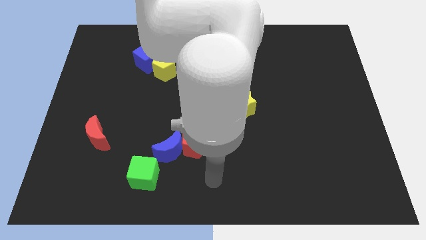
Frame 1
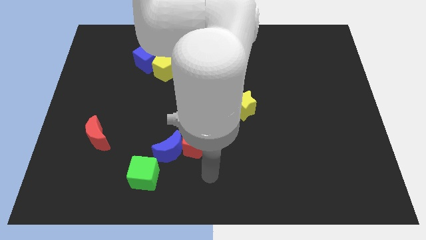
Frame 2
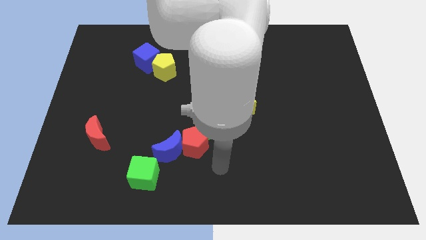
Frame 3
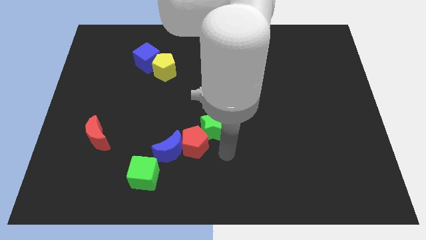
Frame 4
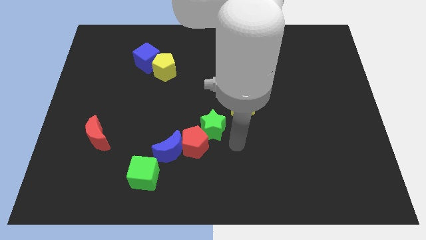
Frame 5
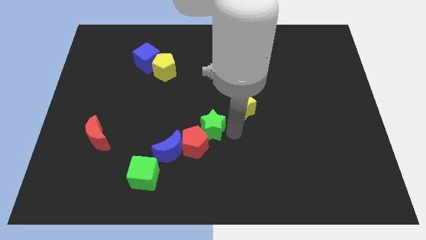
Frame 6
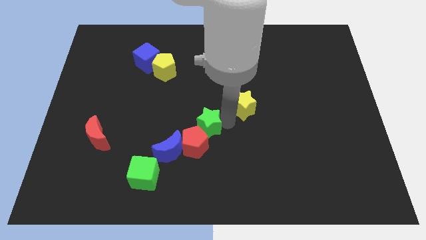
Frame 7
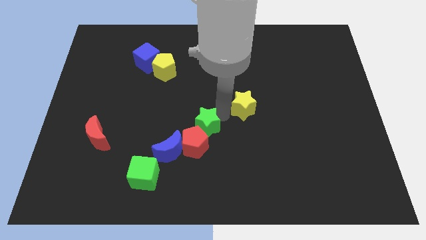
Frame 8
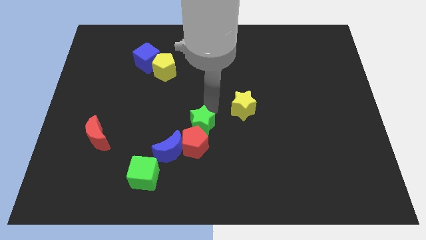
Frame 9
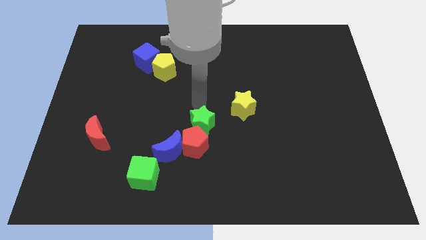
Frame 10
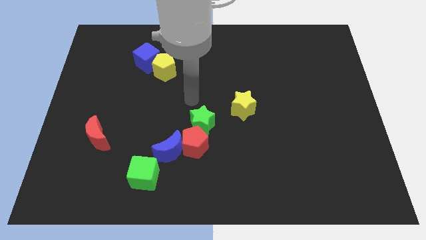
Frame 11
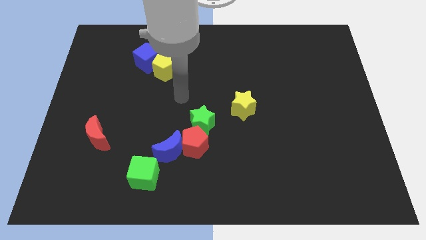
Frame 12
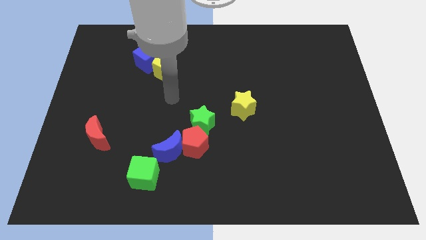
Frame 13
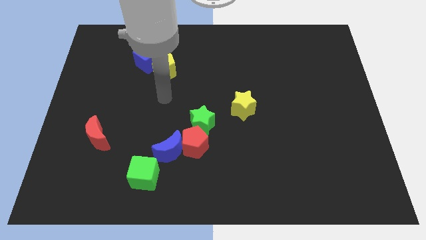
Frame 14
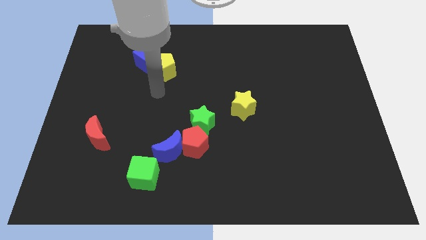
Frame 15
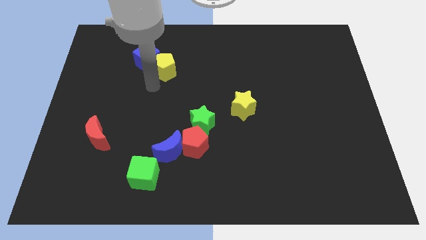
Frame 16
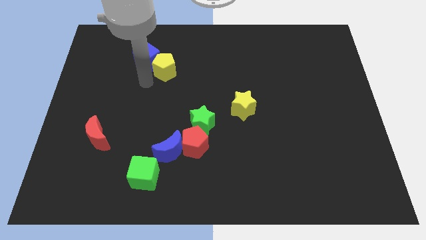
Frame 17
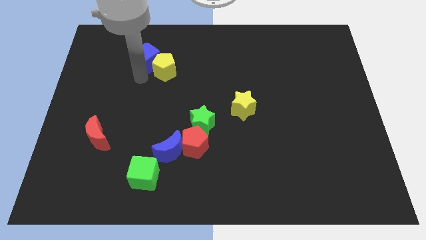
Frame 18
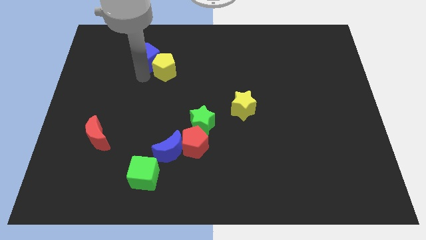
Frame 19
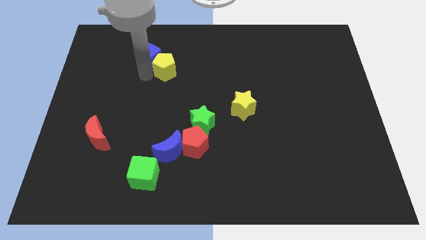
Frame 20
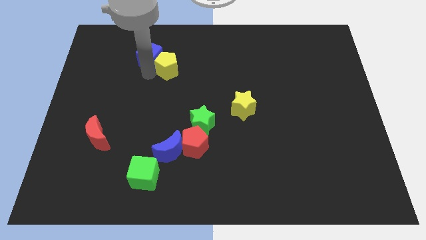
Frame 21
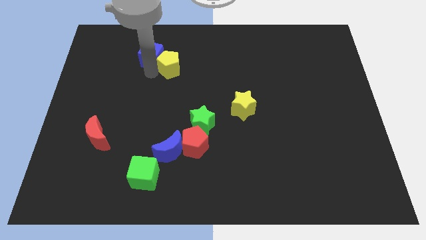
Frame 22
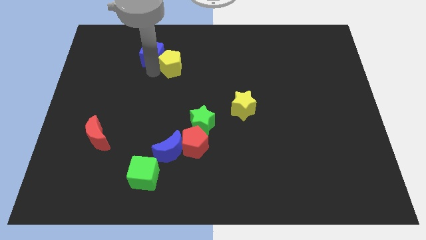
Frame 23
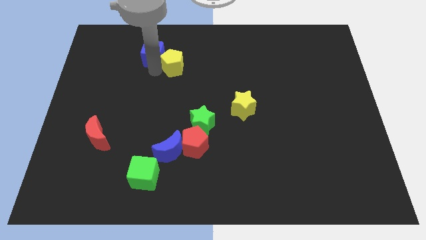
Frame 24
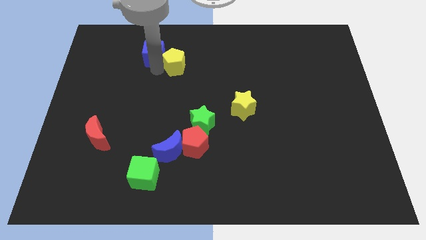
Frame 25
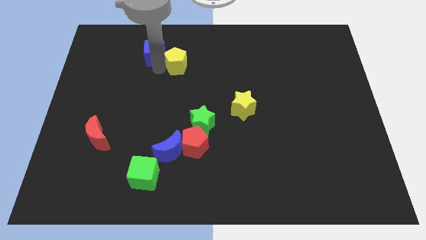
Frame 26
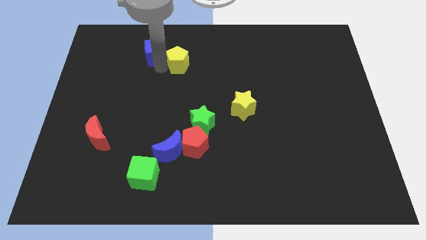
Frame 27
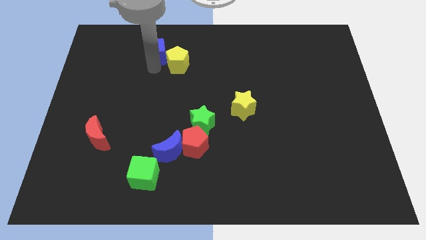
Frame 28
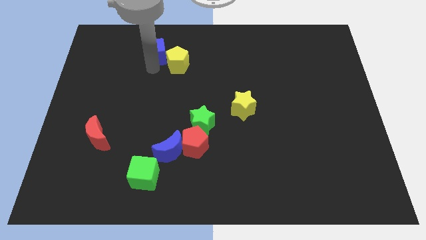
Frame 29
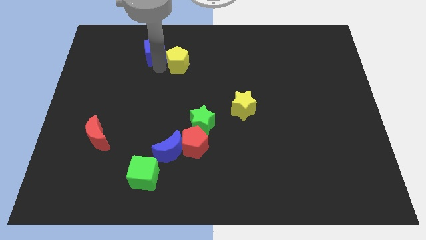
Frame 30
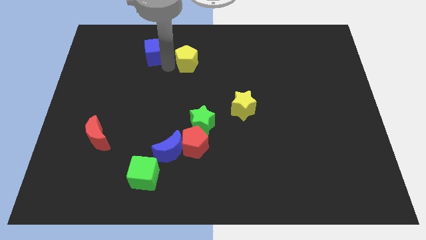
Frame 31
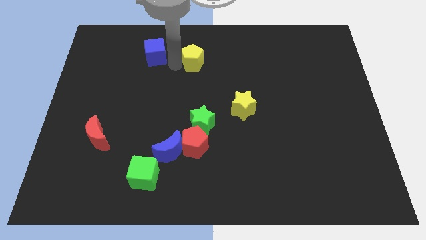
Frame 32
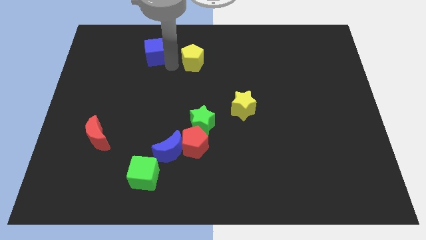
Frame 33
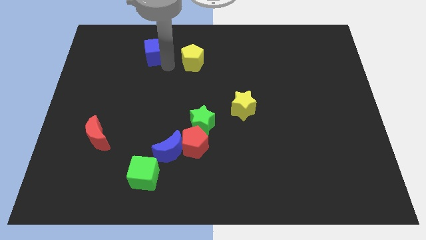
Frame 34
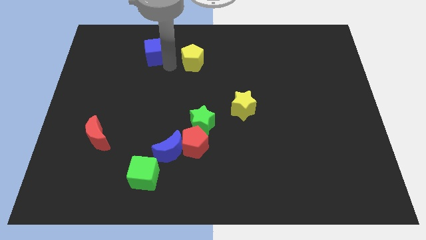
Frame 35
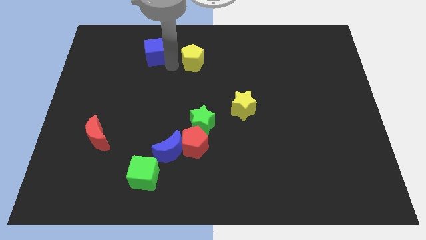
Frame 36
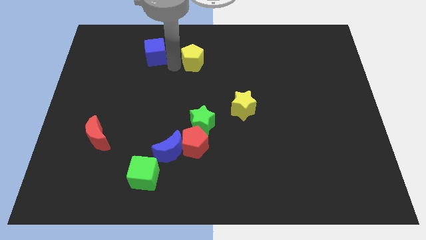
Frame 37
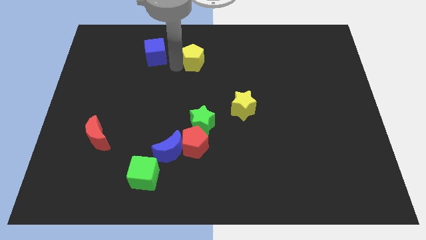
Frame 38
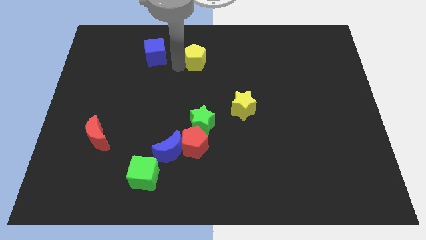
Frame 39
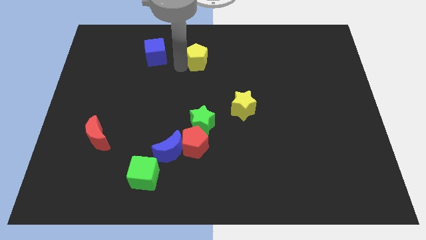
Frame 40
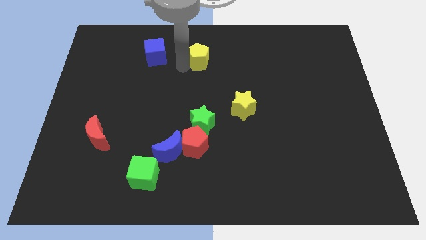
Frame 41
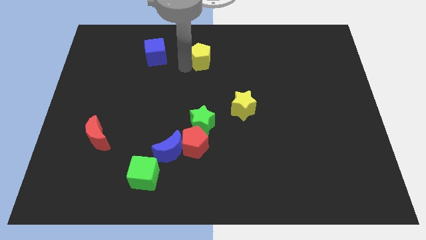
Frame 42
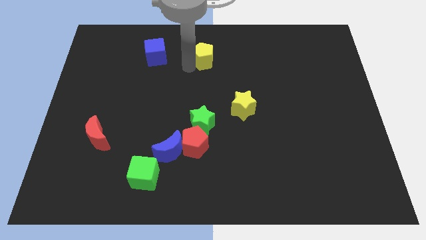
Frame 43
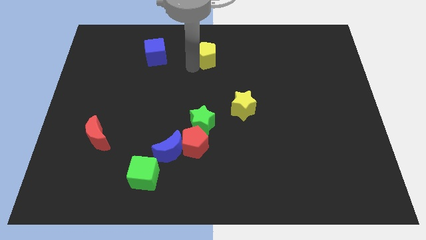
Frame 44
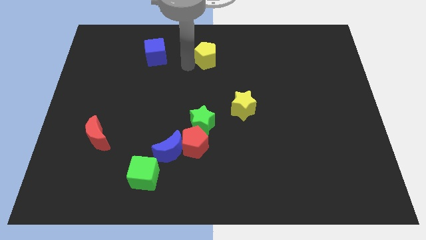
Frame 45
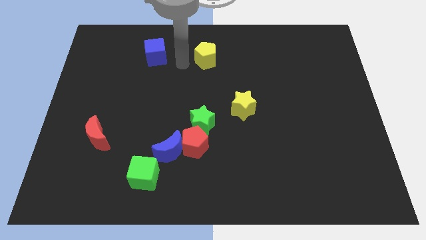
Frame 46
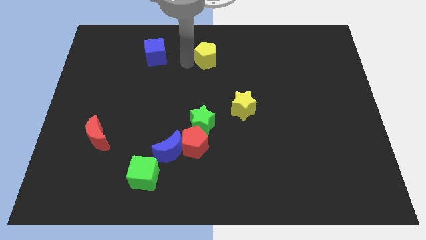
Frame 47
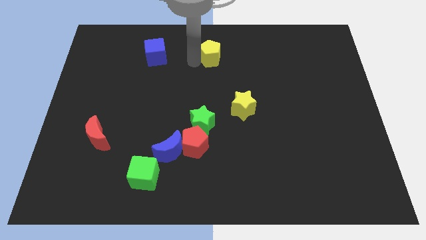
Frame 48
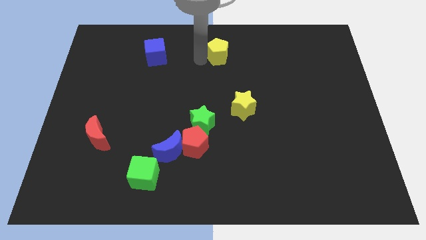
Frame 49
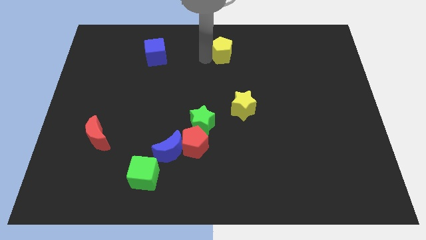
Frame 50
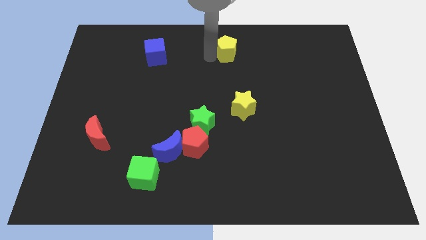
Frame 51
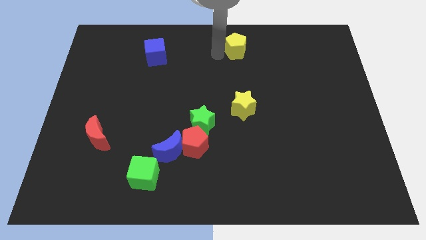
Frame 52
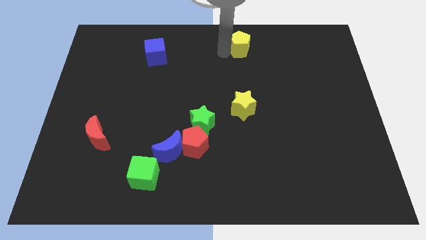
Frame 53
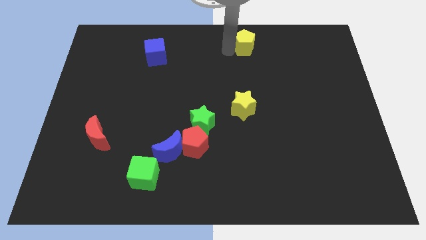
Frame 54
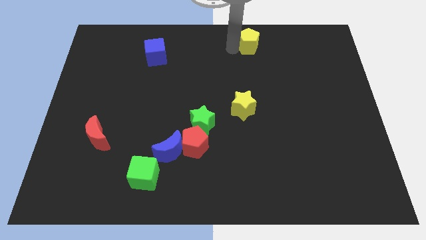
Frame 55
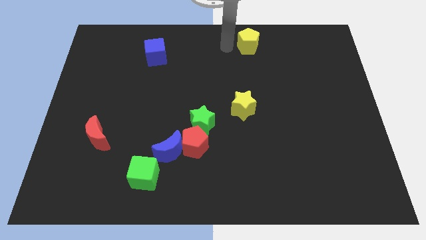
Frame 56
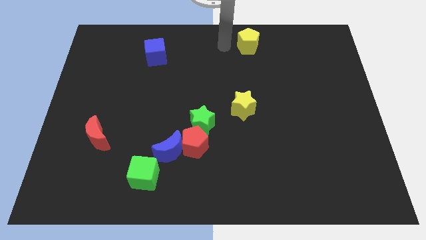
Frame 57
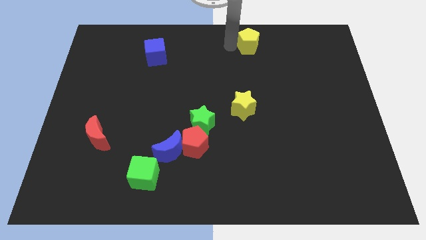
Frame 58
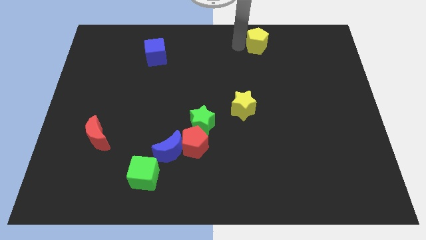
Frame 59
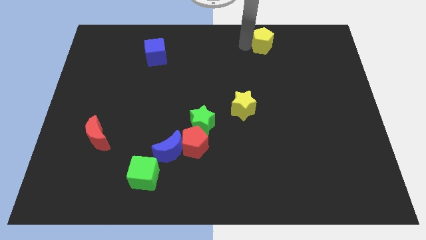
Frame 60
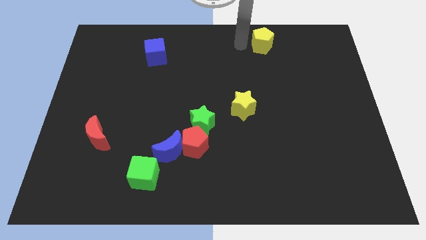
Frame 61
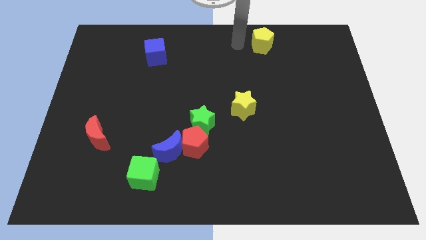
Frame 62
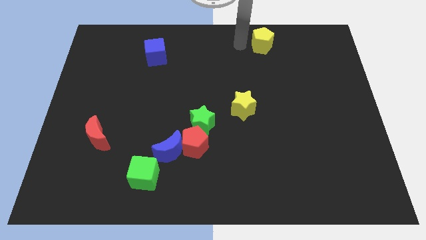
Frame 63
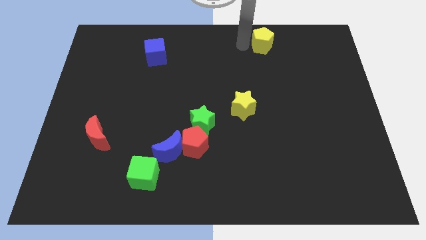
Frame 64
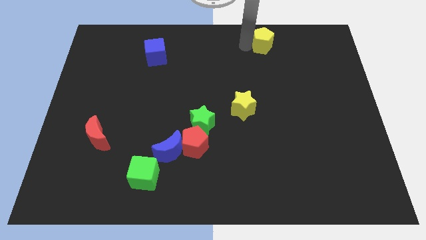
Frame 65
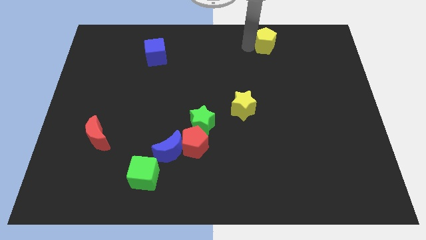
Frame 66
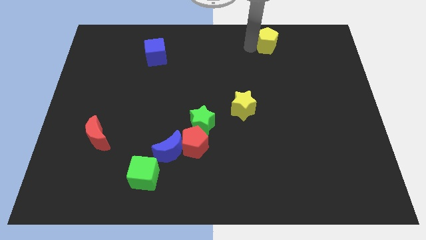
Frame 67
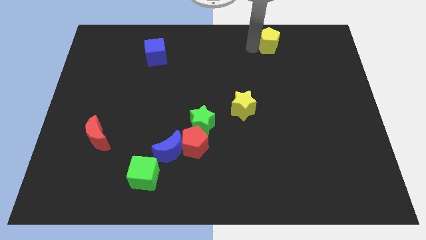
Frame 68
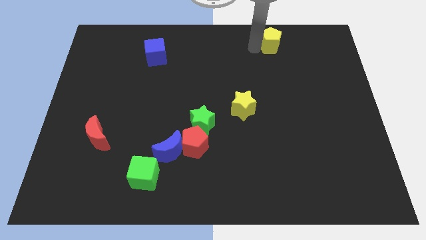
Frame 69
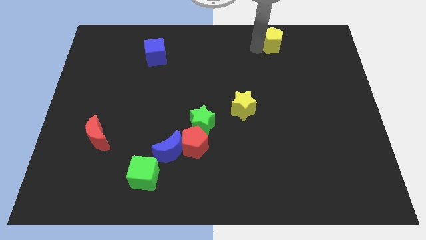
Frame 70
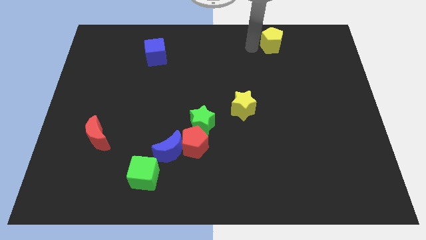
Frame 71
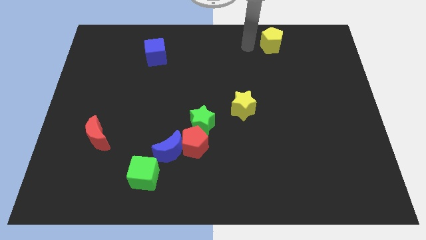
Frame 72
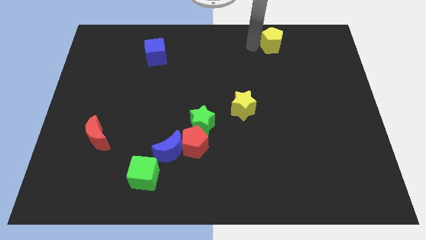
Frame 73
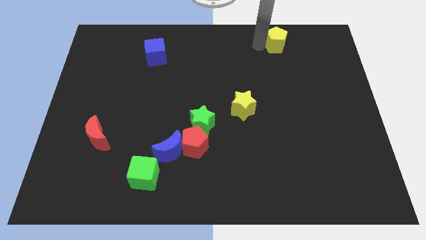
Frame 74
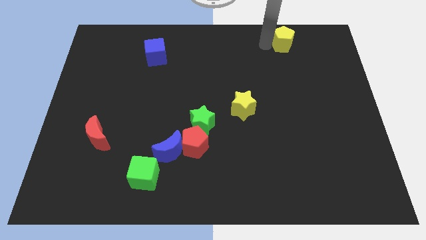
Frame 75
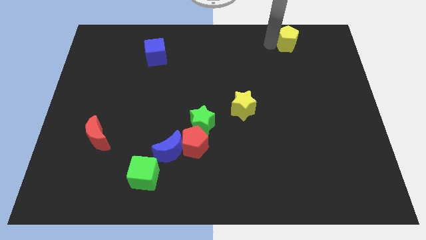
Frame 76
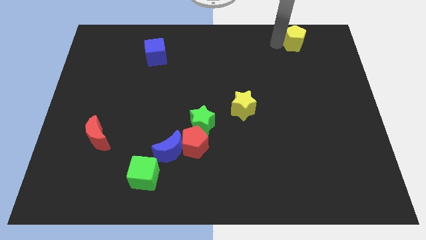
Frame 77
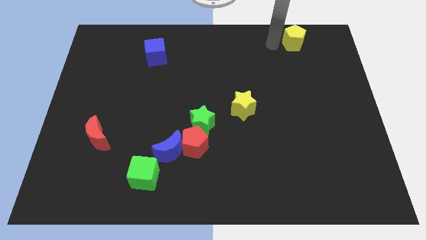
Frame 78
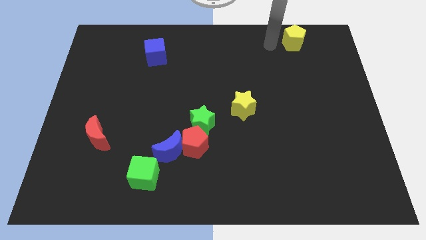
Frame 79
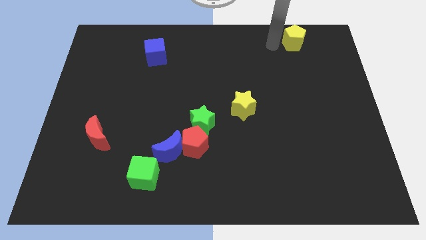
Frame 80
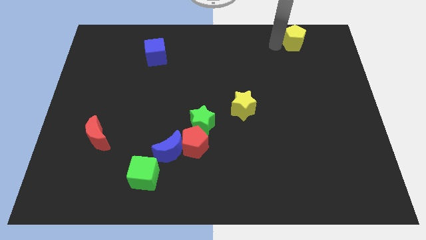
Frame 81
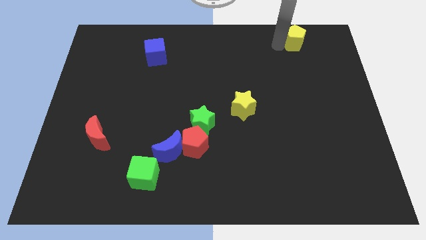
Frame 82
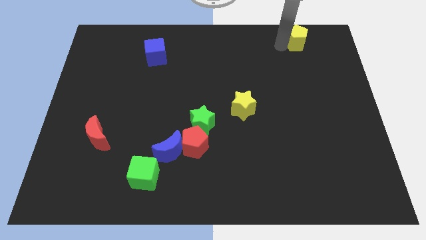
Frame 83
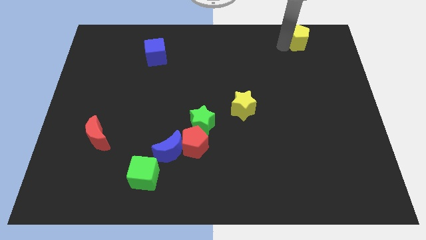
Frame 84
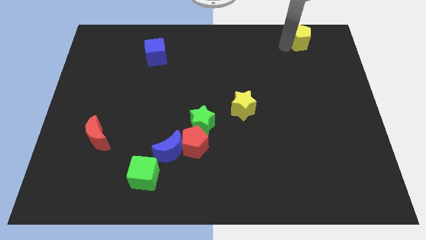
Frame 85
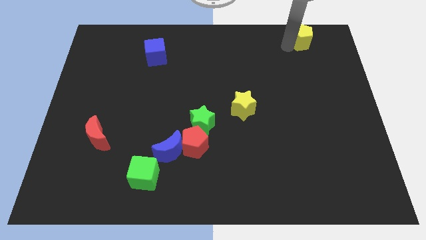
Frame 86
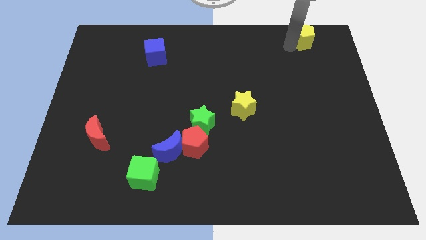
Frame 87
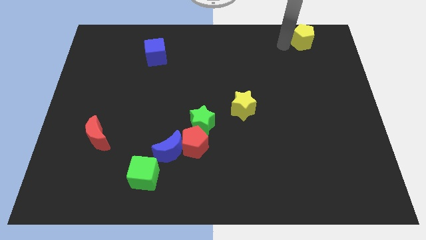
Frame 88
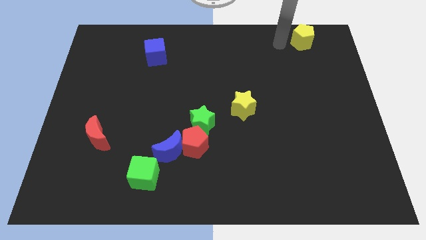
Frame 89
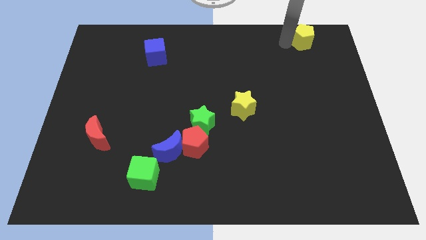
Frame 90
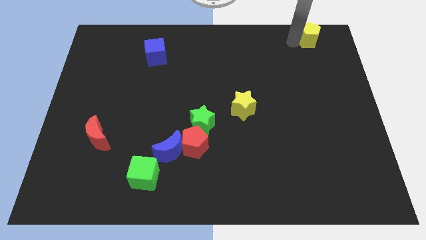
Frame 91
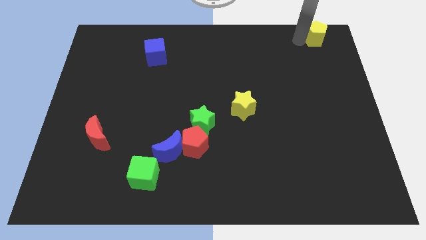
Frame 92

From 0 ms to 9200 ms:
put the yellow pentagon to the top right
